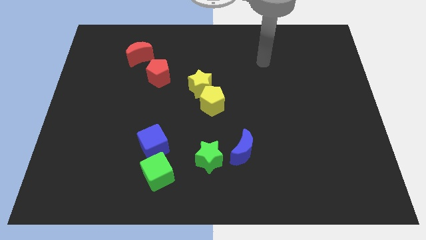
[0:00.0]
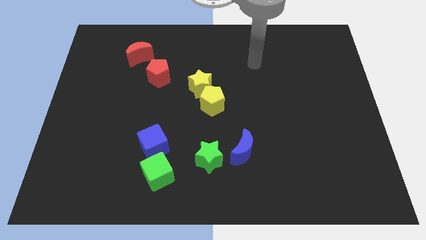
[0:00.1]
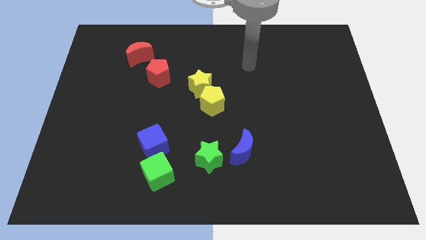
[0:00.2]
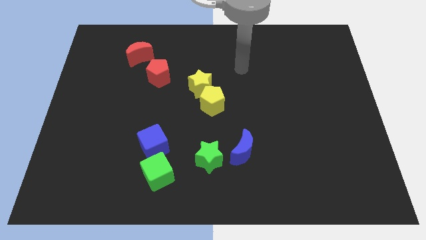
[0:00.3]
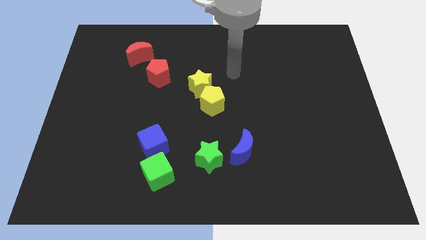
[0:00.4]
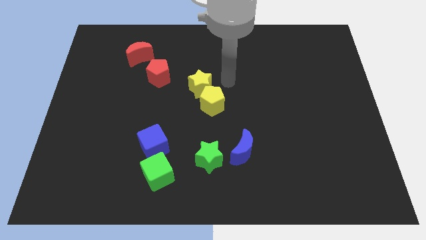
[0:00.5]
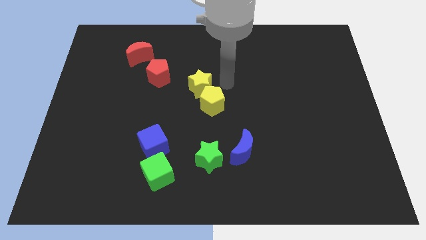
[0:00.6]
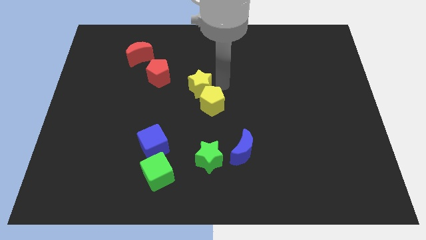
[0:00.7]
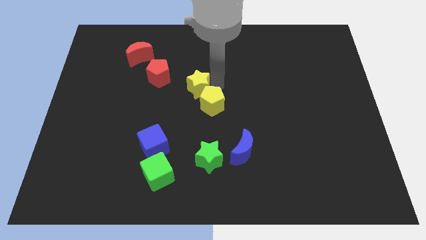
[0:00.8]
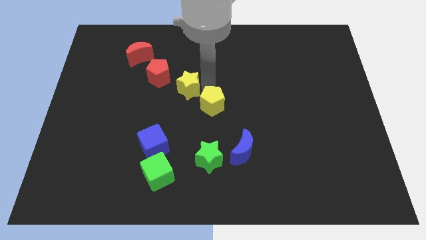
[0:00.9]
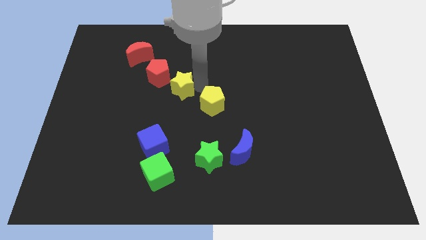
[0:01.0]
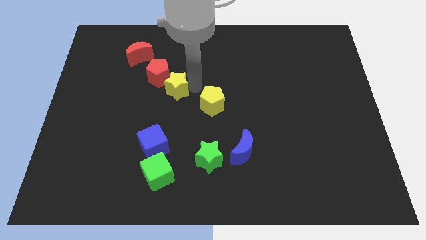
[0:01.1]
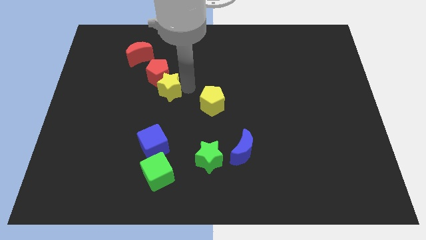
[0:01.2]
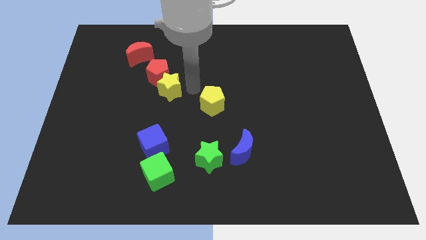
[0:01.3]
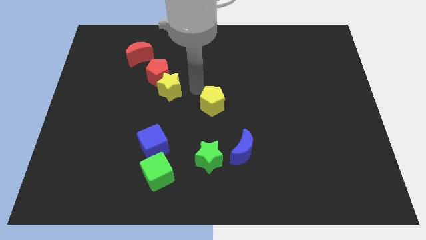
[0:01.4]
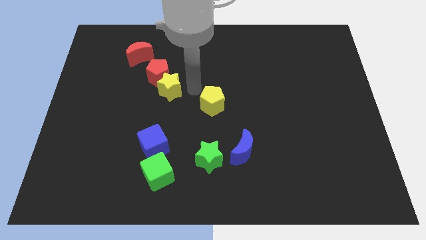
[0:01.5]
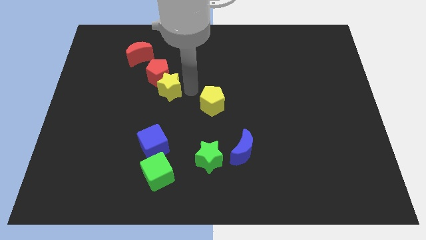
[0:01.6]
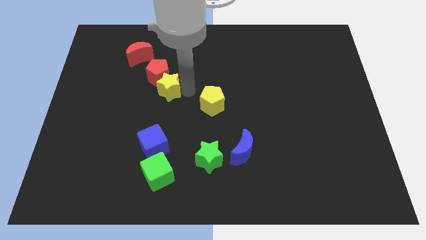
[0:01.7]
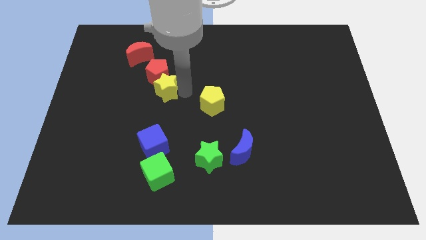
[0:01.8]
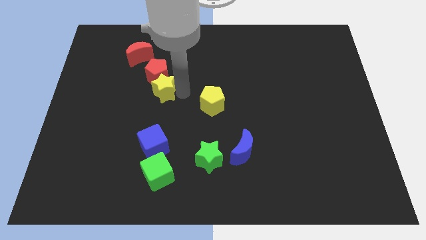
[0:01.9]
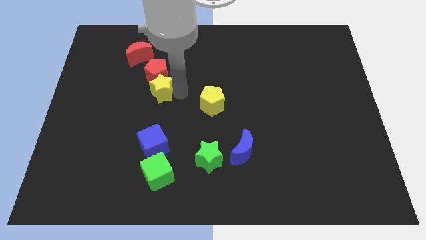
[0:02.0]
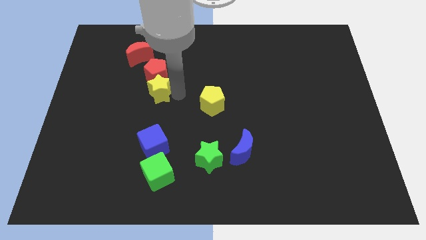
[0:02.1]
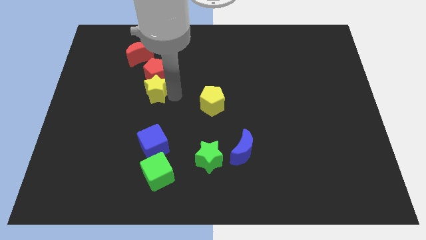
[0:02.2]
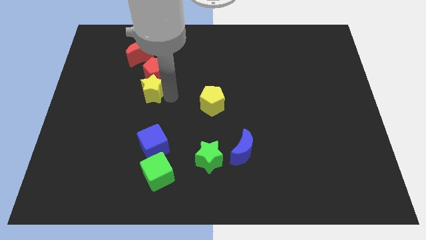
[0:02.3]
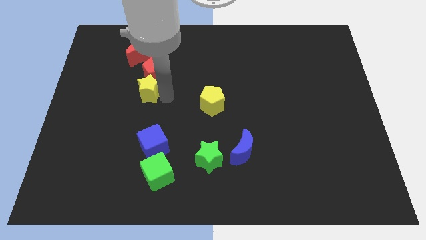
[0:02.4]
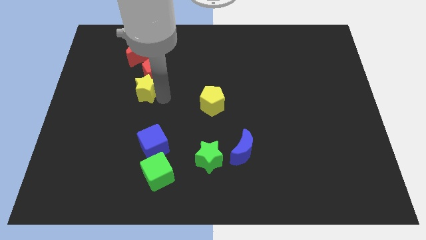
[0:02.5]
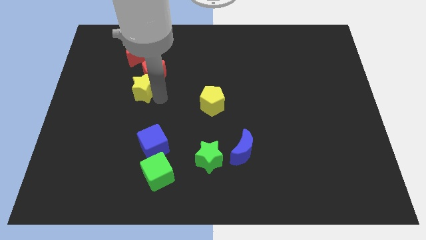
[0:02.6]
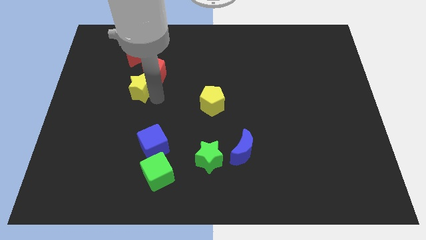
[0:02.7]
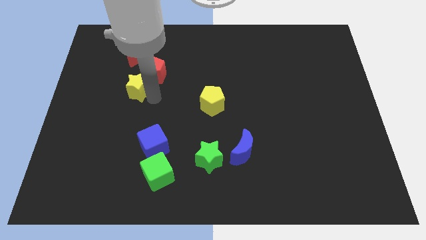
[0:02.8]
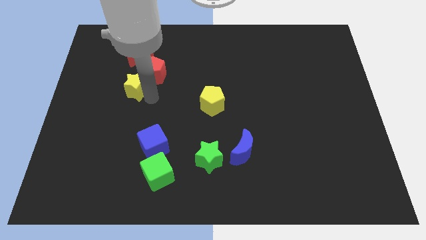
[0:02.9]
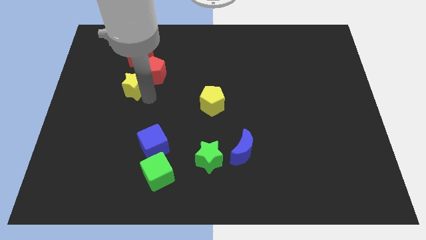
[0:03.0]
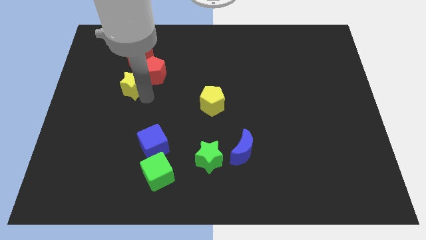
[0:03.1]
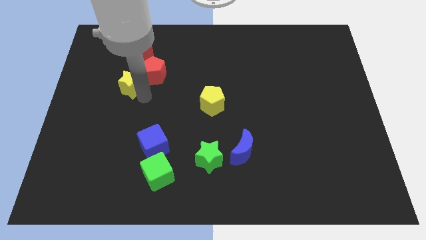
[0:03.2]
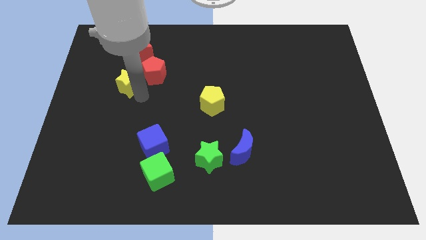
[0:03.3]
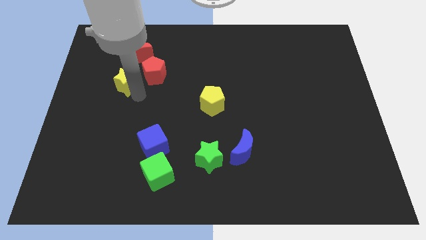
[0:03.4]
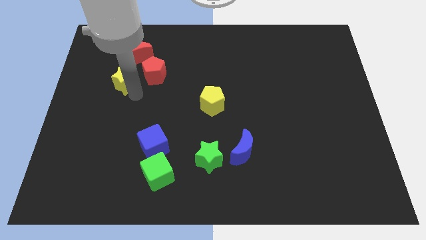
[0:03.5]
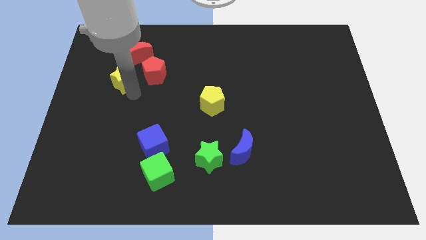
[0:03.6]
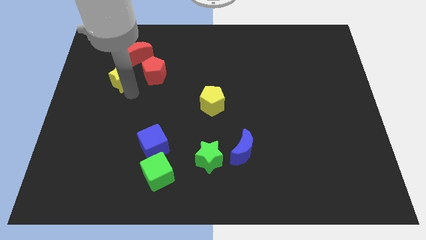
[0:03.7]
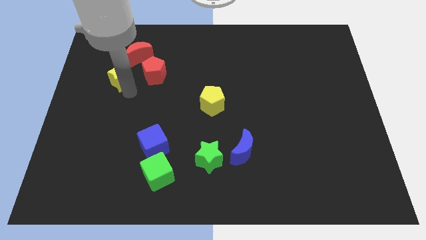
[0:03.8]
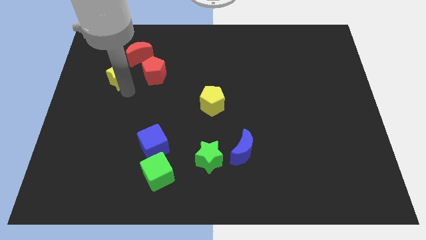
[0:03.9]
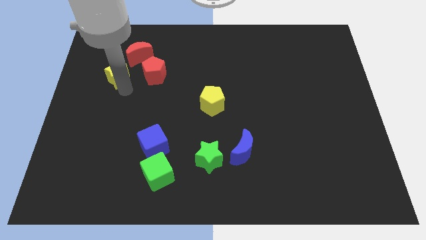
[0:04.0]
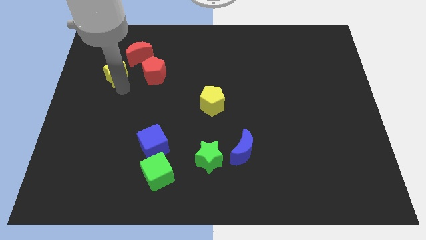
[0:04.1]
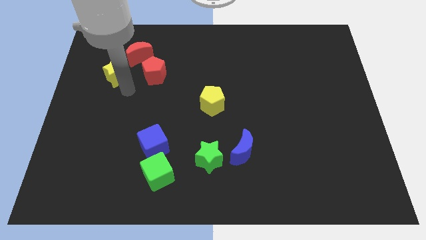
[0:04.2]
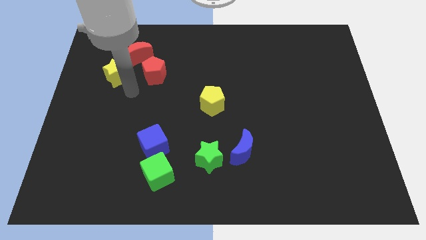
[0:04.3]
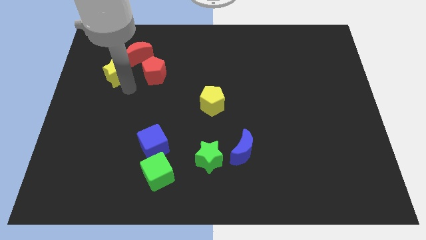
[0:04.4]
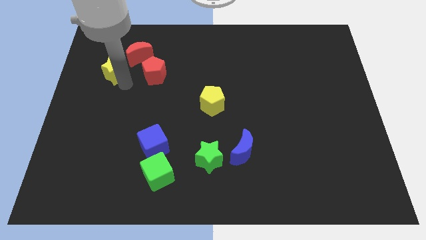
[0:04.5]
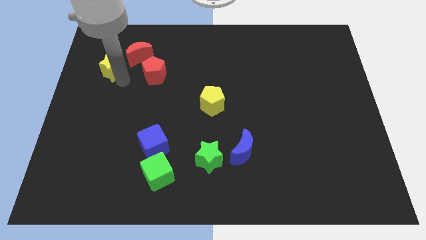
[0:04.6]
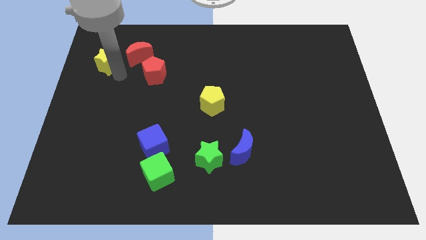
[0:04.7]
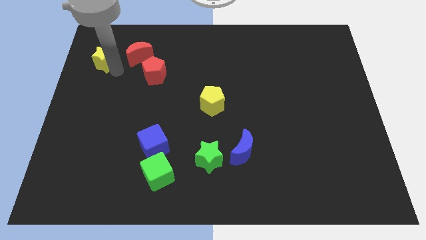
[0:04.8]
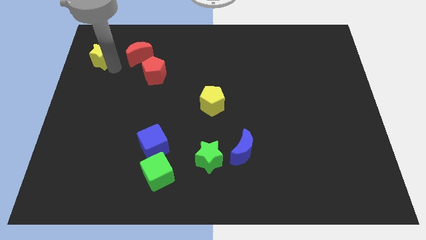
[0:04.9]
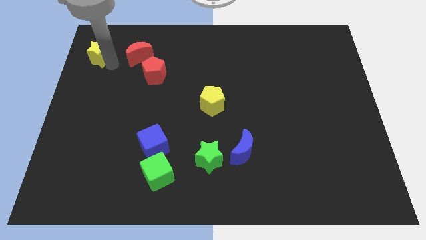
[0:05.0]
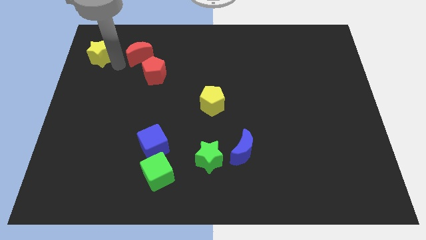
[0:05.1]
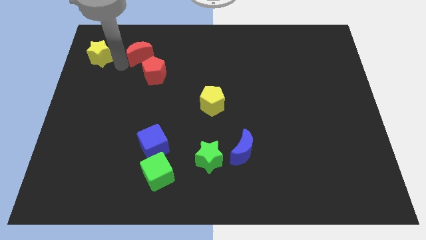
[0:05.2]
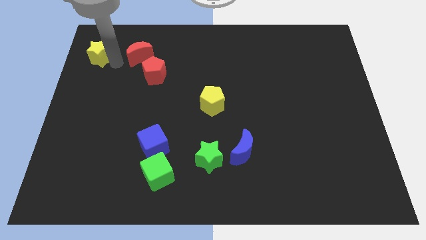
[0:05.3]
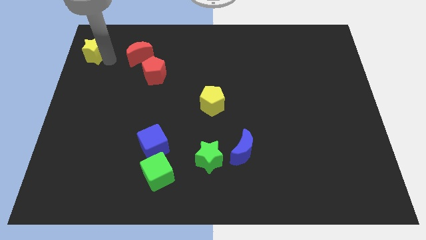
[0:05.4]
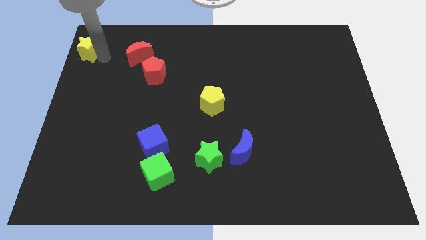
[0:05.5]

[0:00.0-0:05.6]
push the yellow star to the top left of the board

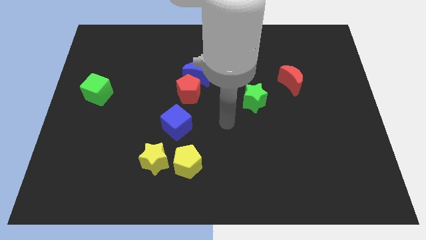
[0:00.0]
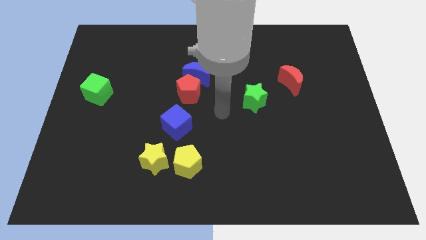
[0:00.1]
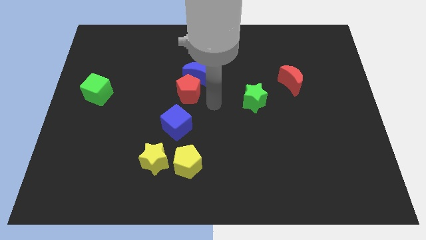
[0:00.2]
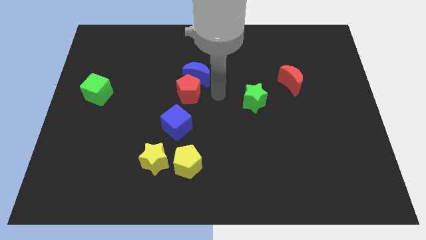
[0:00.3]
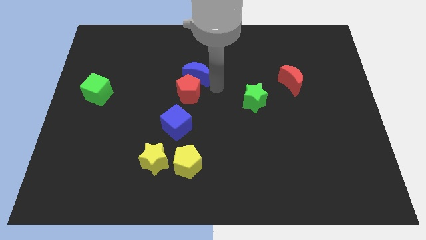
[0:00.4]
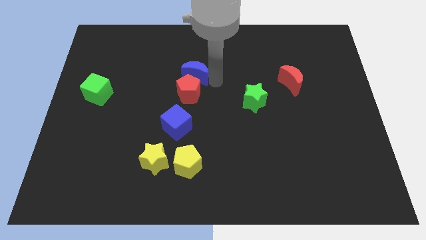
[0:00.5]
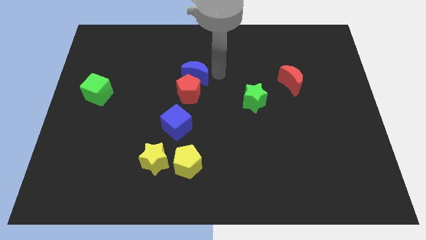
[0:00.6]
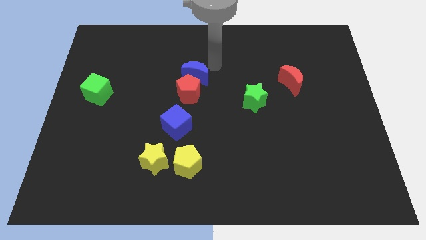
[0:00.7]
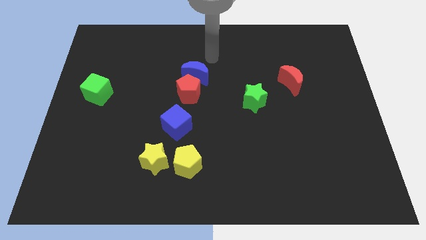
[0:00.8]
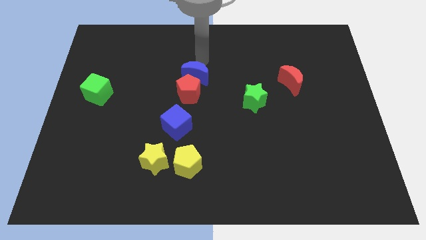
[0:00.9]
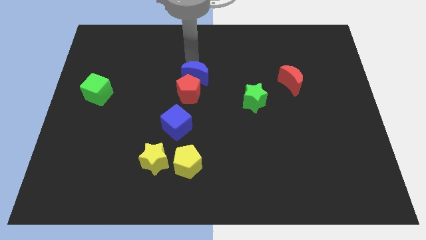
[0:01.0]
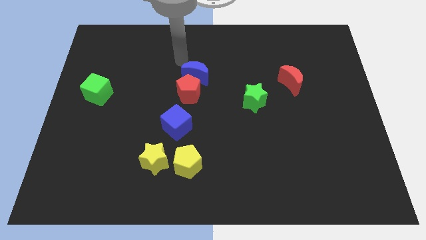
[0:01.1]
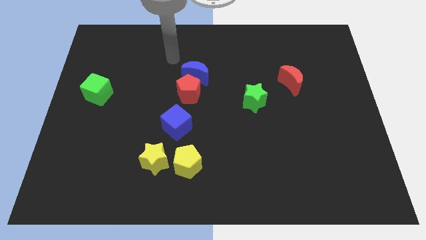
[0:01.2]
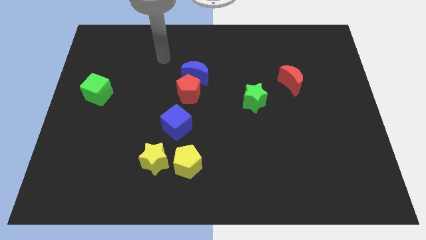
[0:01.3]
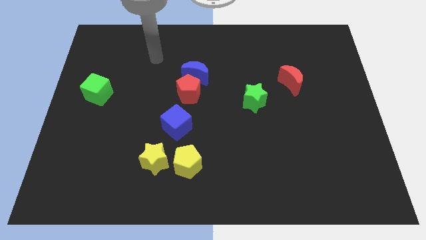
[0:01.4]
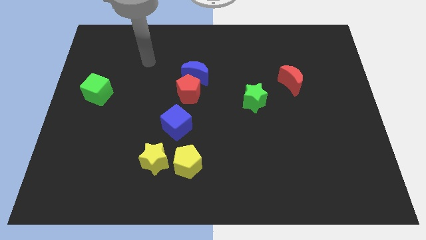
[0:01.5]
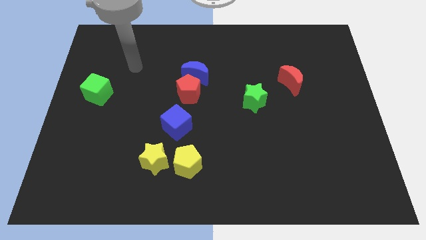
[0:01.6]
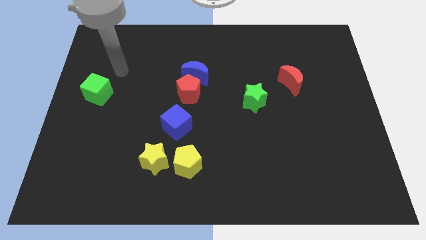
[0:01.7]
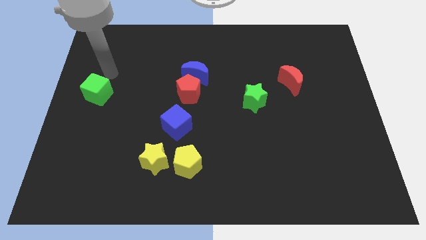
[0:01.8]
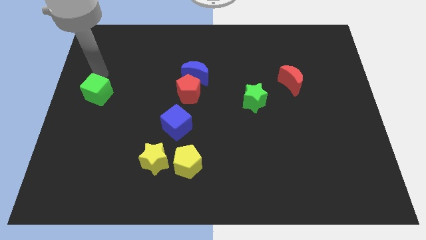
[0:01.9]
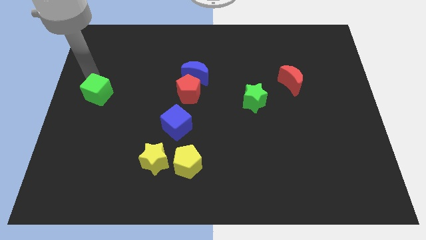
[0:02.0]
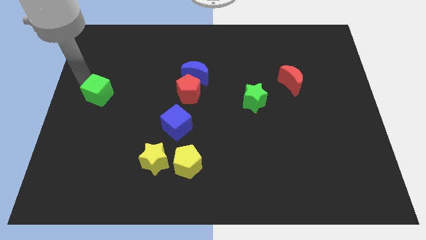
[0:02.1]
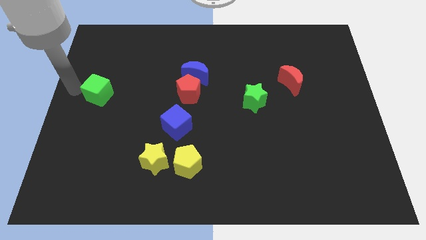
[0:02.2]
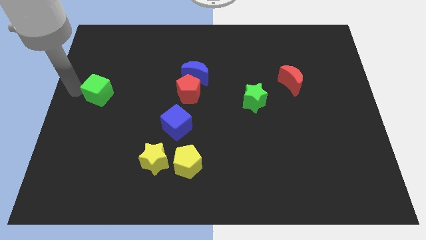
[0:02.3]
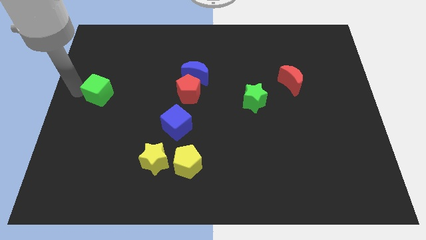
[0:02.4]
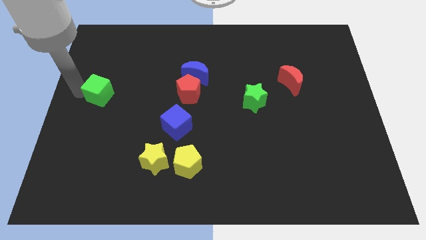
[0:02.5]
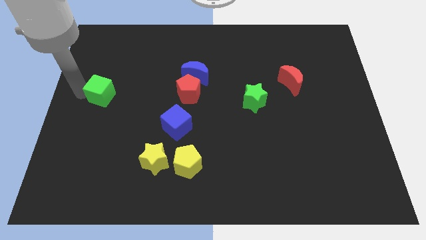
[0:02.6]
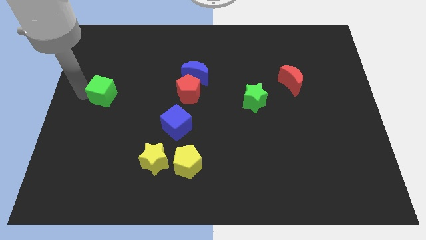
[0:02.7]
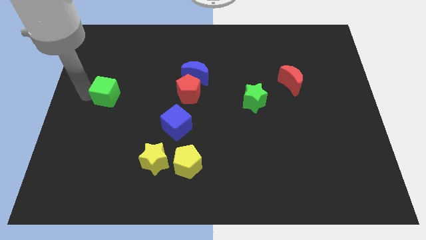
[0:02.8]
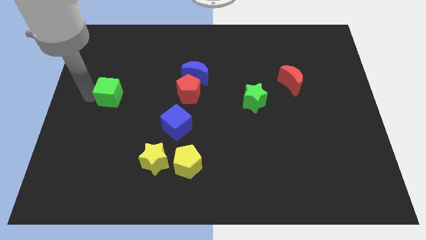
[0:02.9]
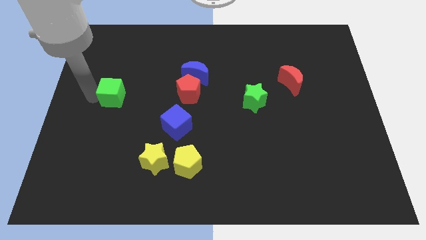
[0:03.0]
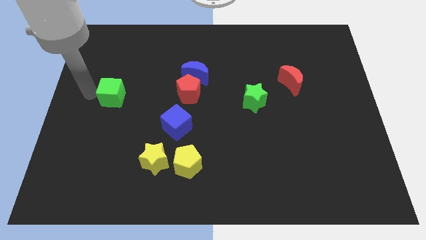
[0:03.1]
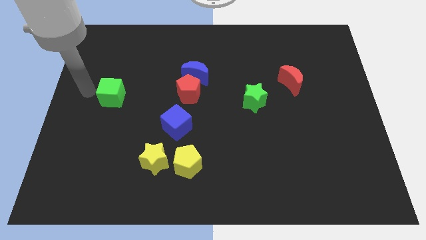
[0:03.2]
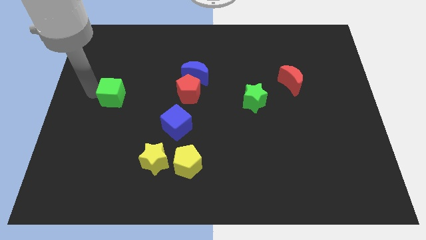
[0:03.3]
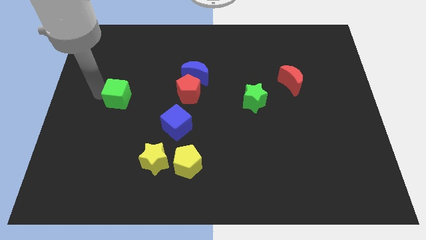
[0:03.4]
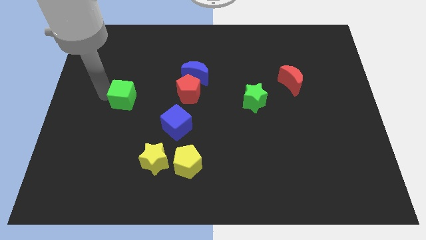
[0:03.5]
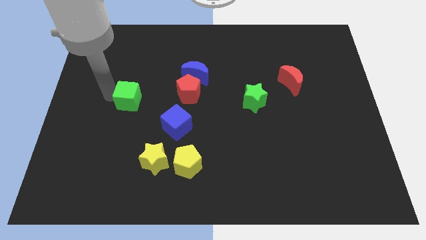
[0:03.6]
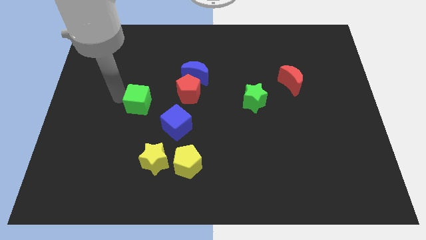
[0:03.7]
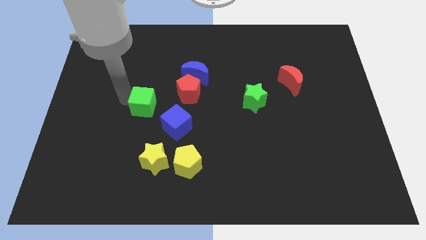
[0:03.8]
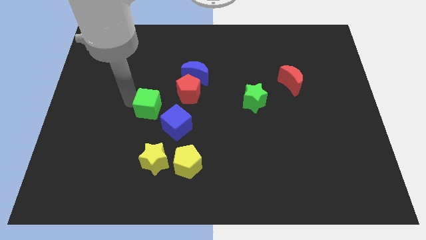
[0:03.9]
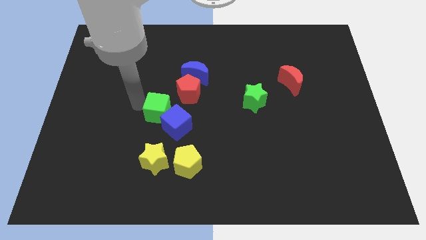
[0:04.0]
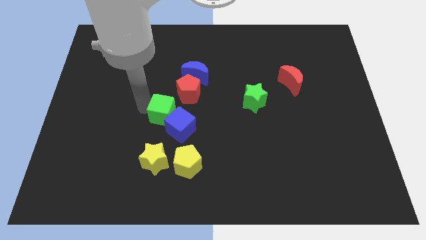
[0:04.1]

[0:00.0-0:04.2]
slide the green cube to the middle
